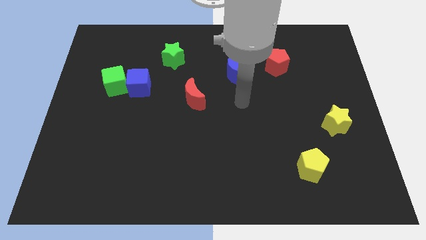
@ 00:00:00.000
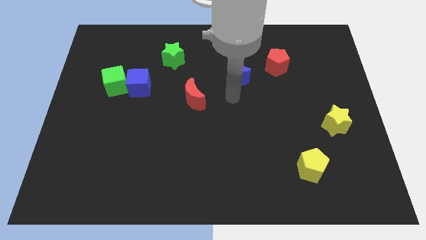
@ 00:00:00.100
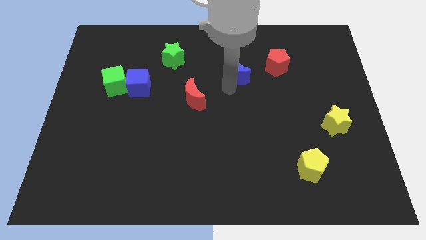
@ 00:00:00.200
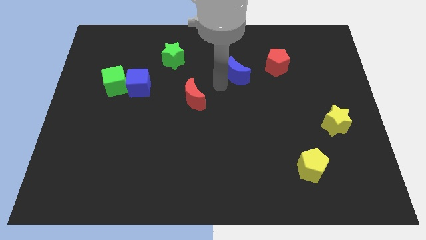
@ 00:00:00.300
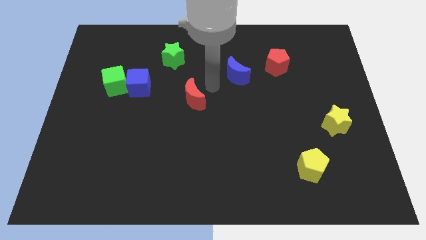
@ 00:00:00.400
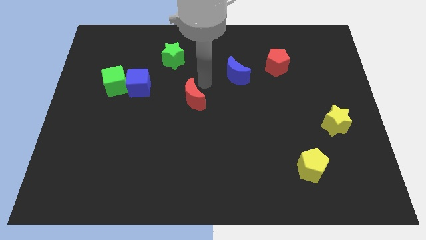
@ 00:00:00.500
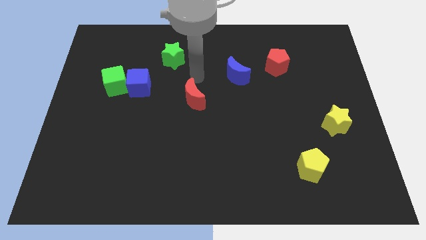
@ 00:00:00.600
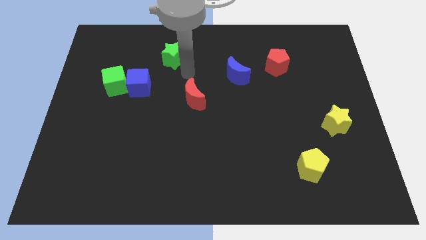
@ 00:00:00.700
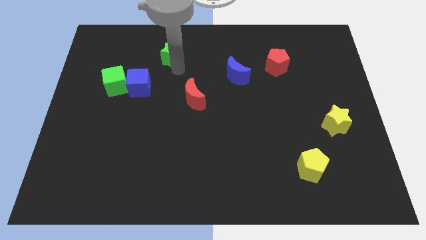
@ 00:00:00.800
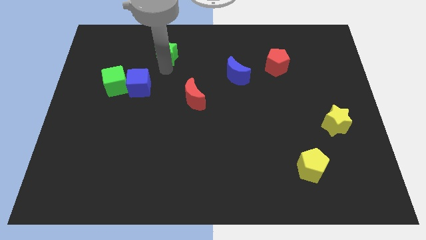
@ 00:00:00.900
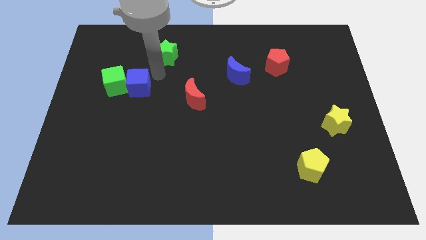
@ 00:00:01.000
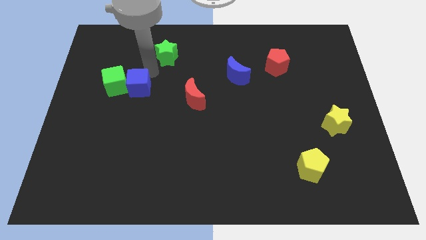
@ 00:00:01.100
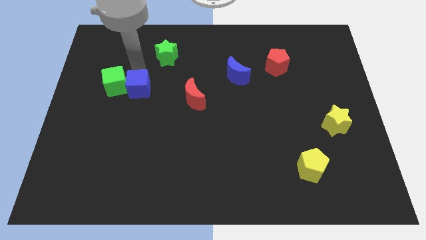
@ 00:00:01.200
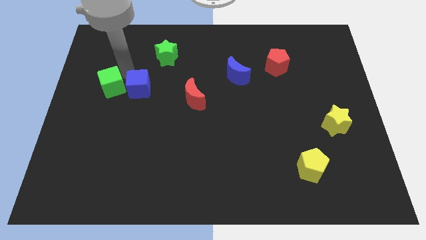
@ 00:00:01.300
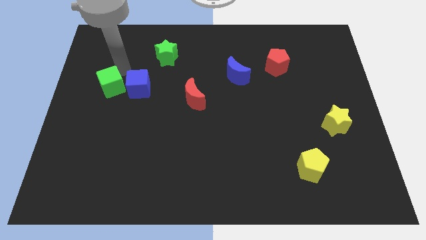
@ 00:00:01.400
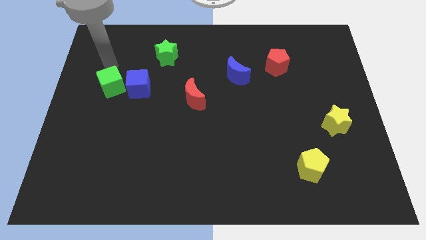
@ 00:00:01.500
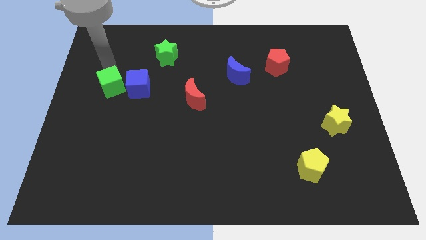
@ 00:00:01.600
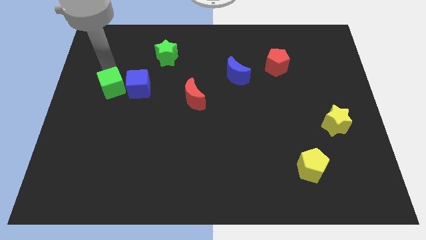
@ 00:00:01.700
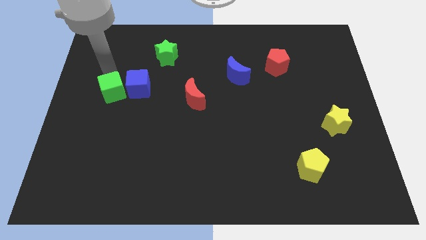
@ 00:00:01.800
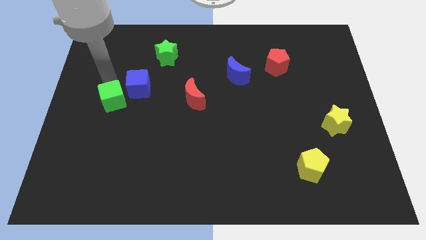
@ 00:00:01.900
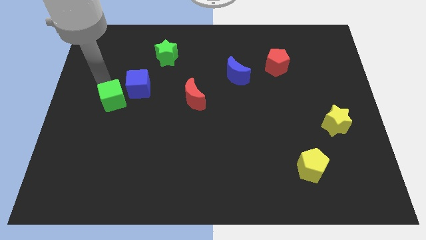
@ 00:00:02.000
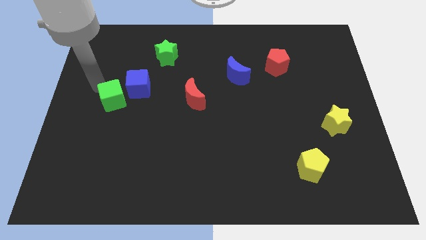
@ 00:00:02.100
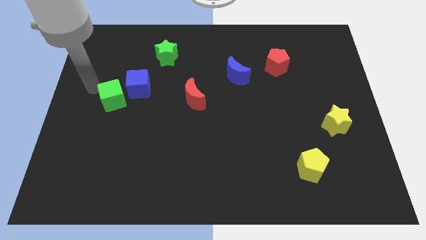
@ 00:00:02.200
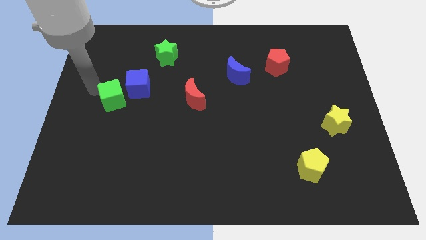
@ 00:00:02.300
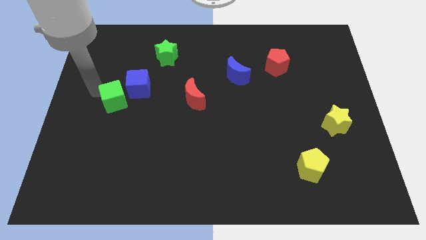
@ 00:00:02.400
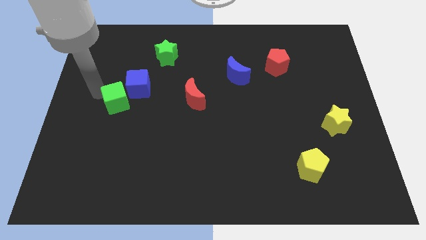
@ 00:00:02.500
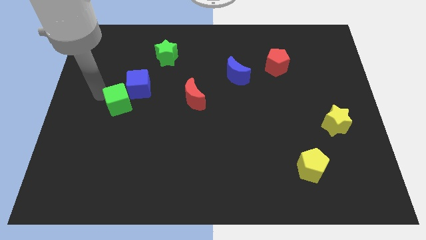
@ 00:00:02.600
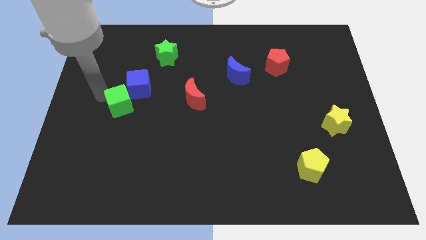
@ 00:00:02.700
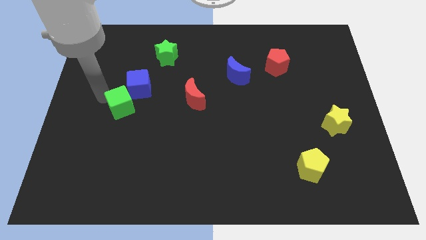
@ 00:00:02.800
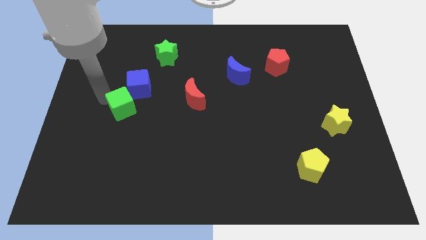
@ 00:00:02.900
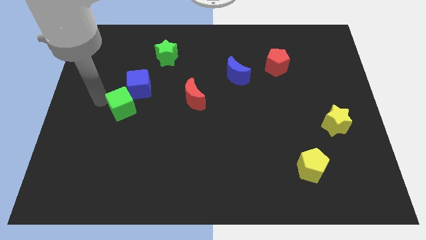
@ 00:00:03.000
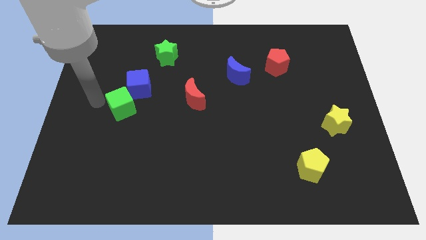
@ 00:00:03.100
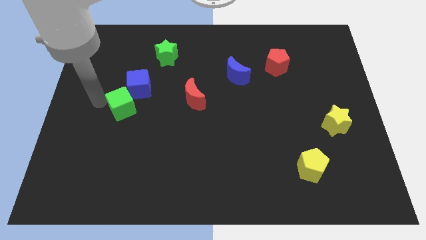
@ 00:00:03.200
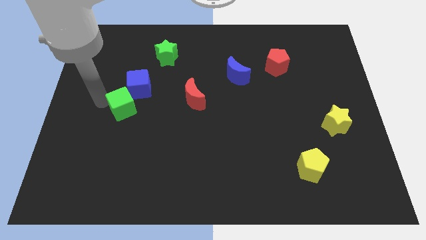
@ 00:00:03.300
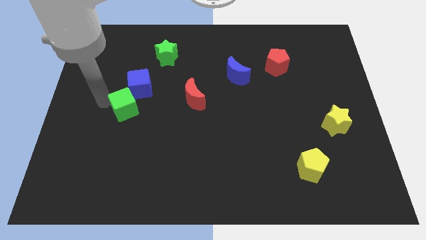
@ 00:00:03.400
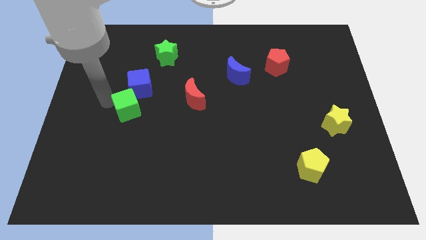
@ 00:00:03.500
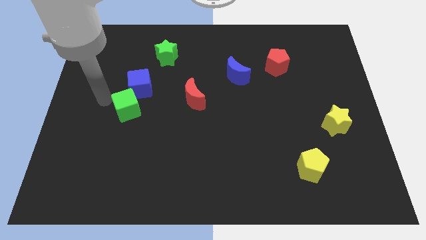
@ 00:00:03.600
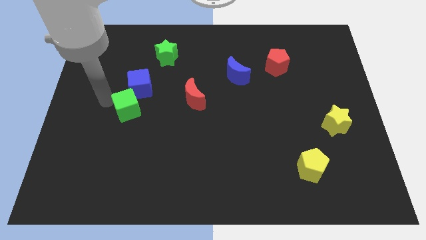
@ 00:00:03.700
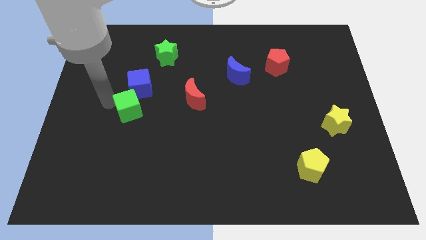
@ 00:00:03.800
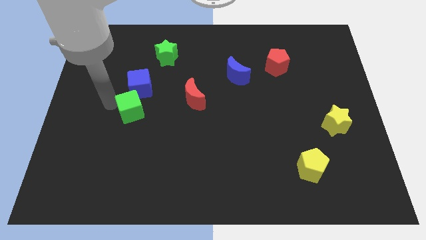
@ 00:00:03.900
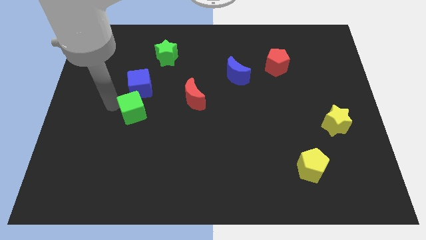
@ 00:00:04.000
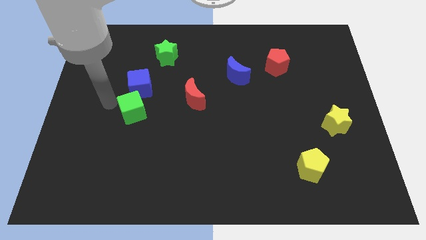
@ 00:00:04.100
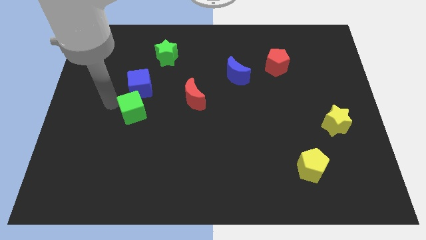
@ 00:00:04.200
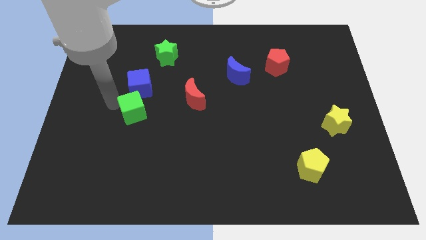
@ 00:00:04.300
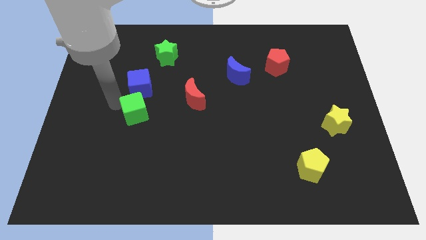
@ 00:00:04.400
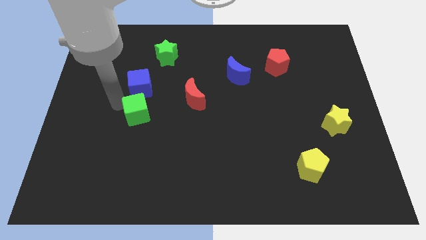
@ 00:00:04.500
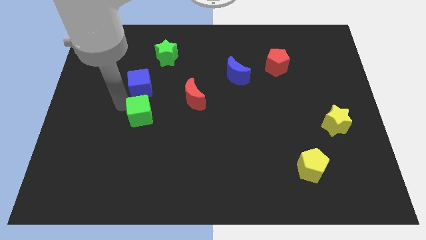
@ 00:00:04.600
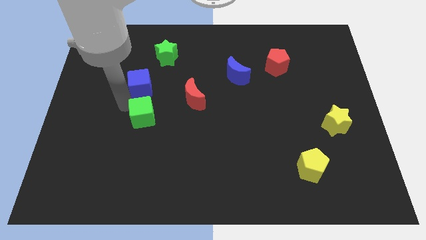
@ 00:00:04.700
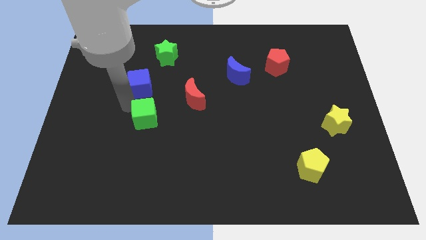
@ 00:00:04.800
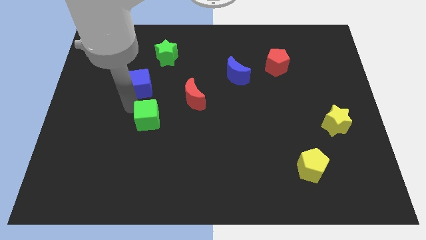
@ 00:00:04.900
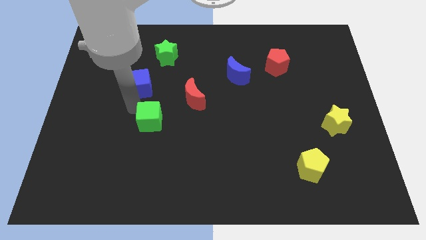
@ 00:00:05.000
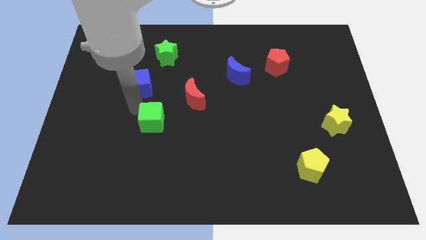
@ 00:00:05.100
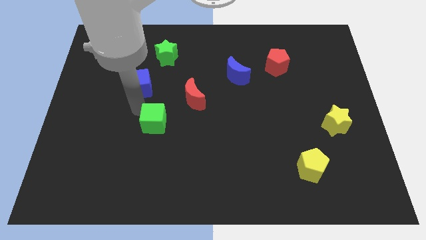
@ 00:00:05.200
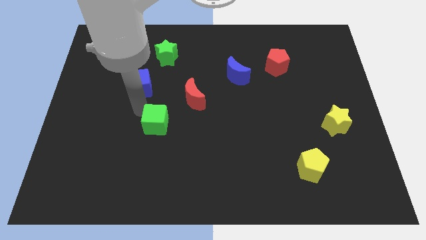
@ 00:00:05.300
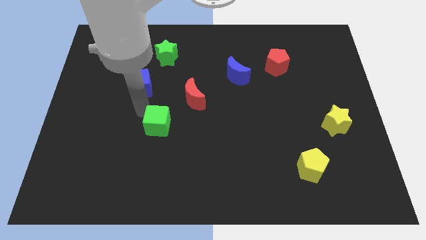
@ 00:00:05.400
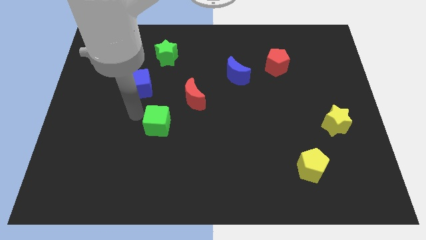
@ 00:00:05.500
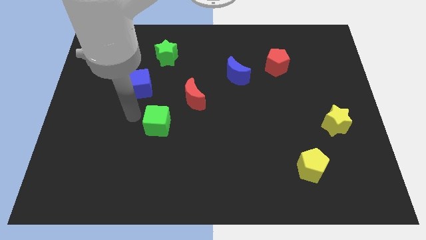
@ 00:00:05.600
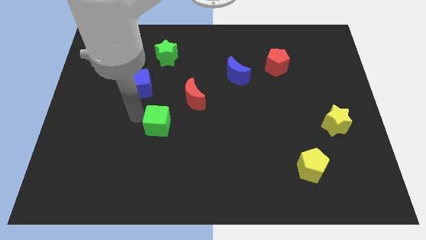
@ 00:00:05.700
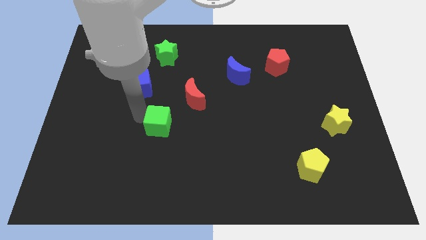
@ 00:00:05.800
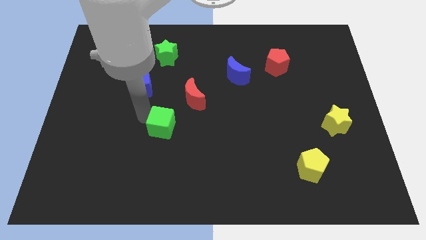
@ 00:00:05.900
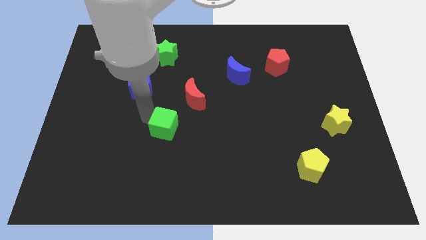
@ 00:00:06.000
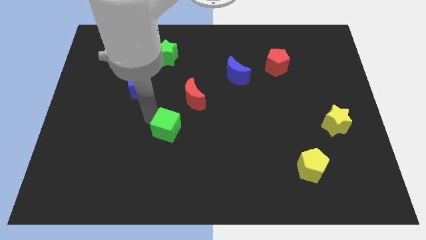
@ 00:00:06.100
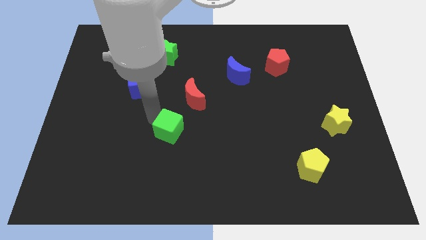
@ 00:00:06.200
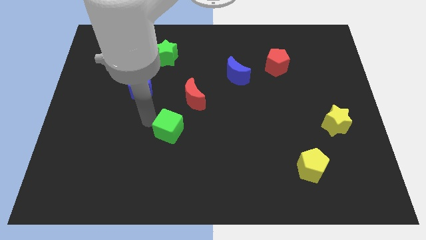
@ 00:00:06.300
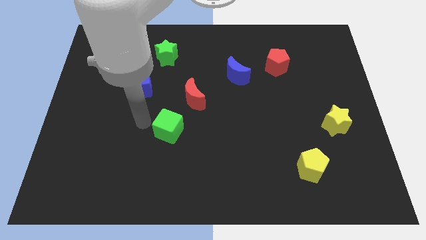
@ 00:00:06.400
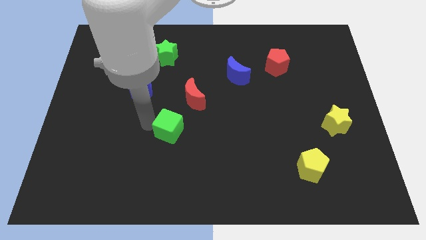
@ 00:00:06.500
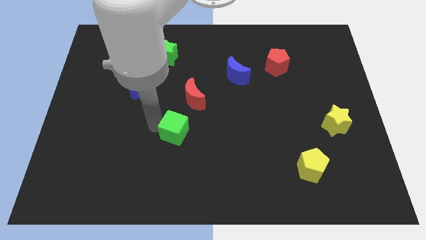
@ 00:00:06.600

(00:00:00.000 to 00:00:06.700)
push the green cube to the bottom side of the red moon
